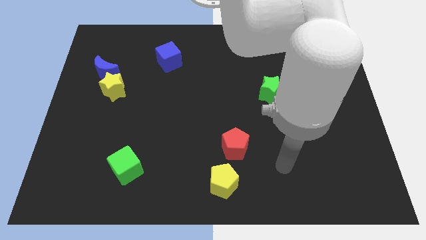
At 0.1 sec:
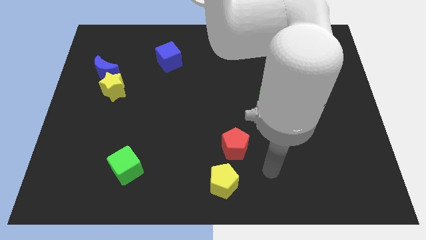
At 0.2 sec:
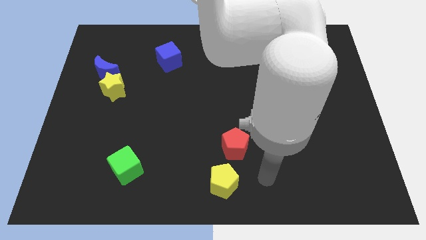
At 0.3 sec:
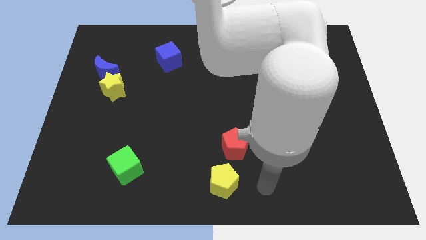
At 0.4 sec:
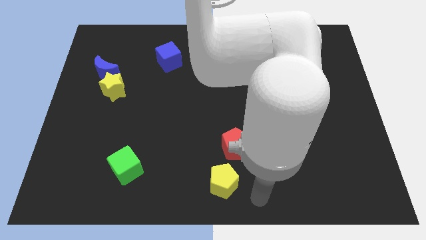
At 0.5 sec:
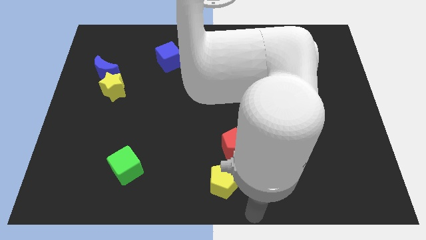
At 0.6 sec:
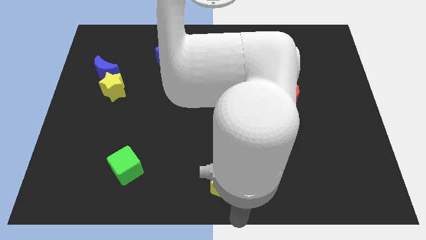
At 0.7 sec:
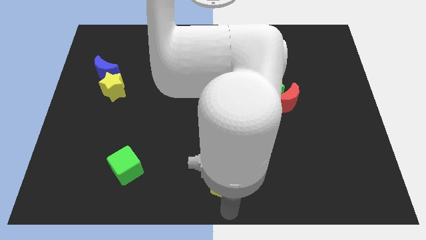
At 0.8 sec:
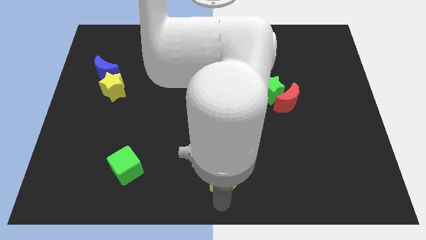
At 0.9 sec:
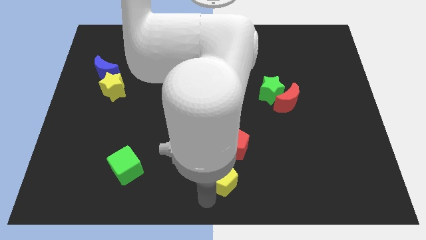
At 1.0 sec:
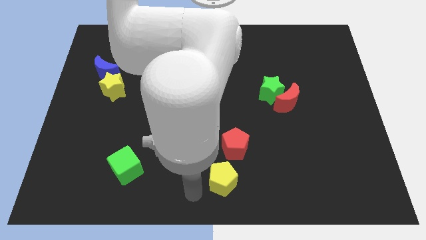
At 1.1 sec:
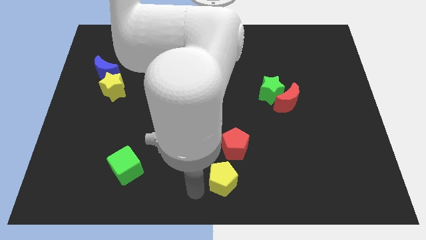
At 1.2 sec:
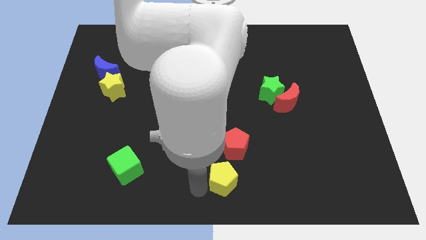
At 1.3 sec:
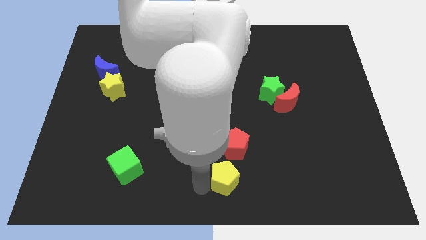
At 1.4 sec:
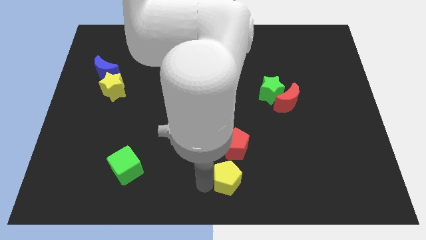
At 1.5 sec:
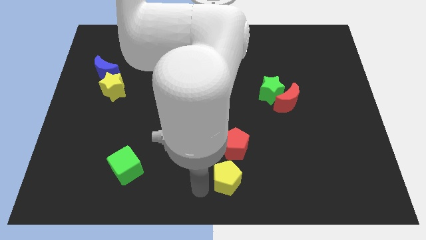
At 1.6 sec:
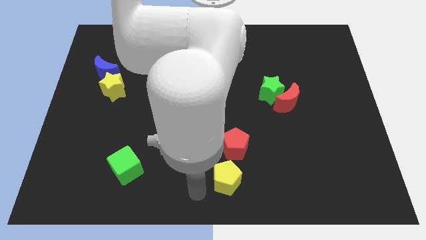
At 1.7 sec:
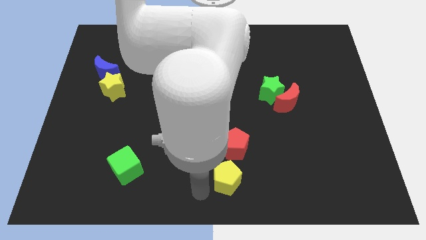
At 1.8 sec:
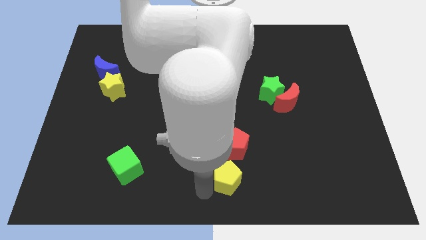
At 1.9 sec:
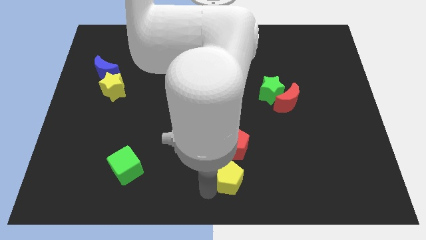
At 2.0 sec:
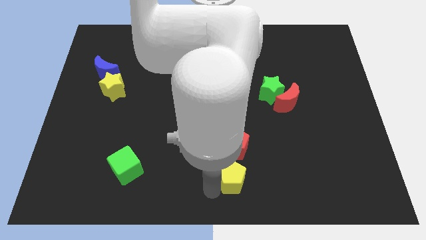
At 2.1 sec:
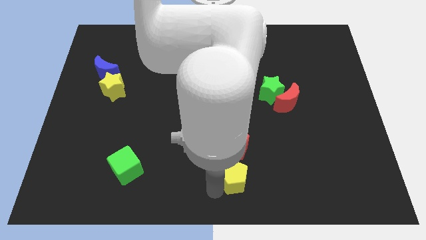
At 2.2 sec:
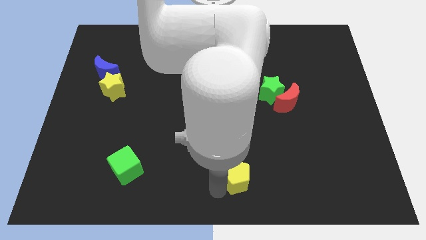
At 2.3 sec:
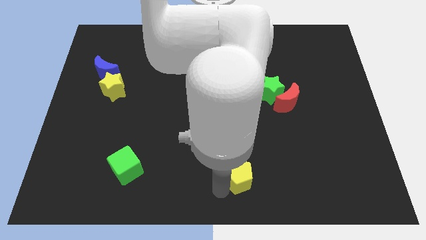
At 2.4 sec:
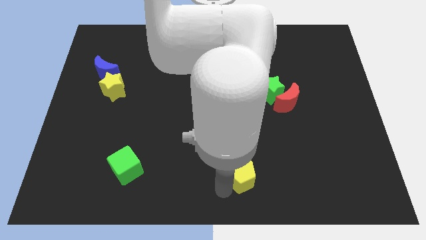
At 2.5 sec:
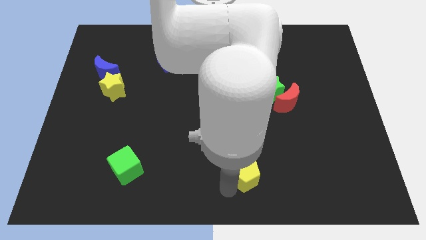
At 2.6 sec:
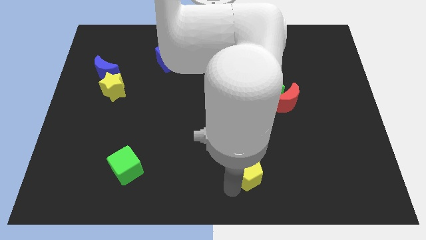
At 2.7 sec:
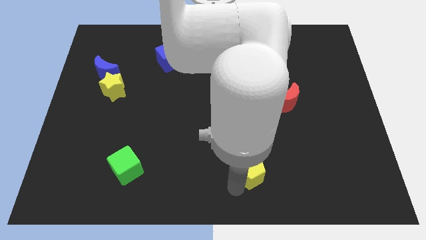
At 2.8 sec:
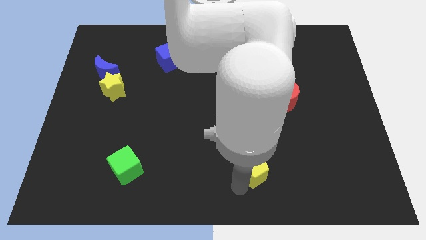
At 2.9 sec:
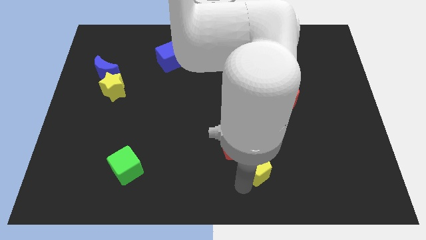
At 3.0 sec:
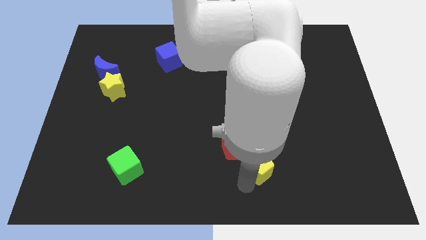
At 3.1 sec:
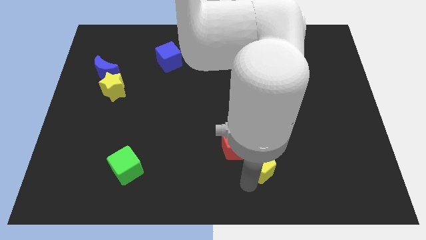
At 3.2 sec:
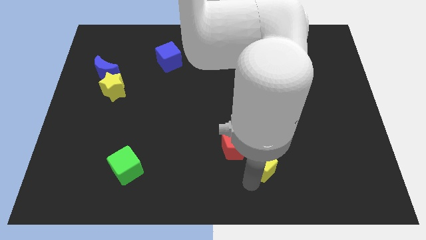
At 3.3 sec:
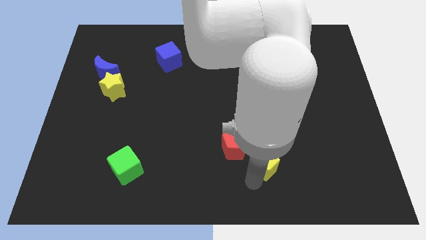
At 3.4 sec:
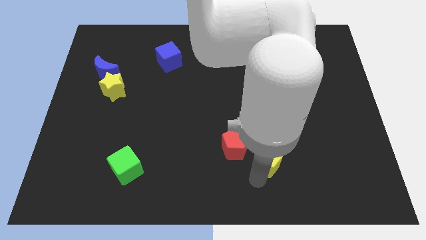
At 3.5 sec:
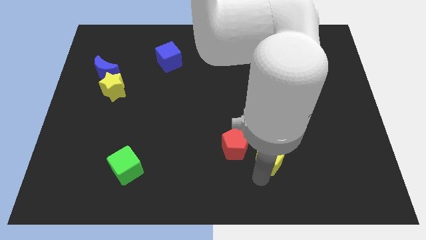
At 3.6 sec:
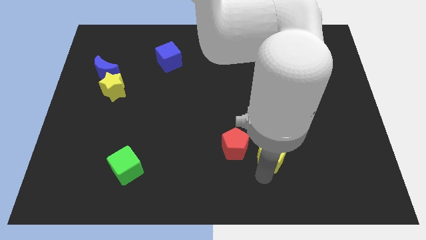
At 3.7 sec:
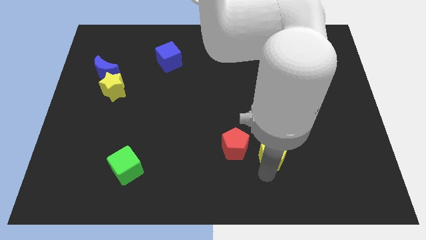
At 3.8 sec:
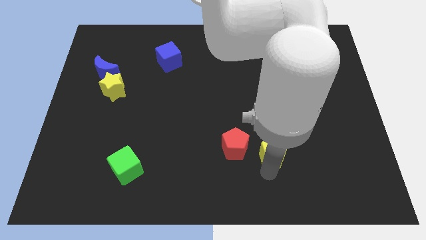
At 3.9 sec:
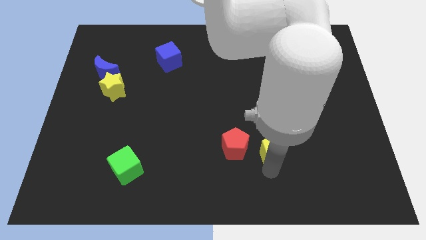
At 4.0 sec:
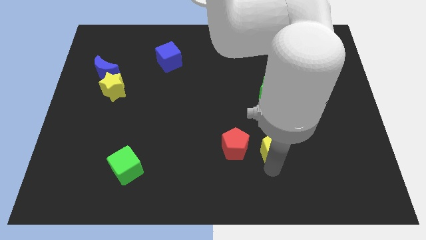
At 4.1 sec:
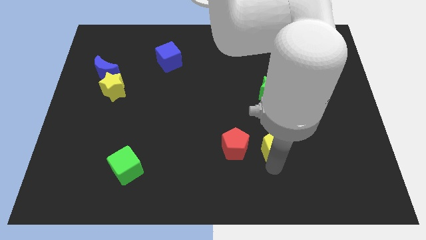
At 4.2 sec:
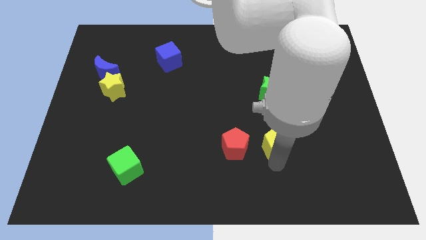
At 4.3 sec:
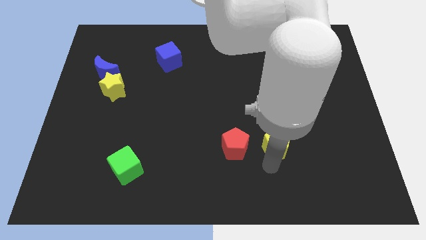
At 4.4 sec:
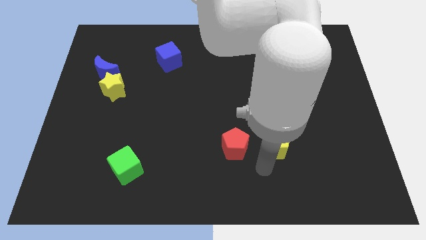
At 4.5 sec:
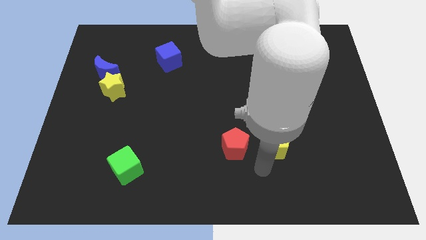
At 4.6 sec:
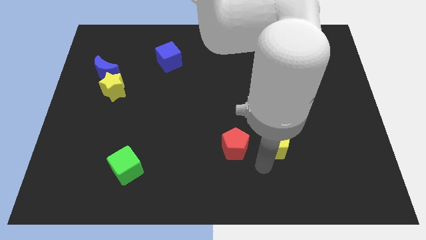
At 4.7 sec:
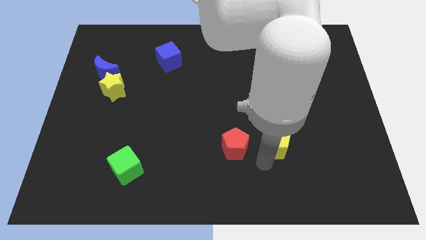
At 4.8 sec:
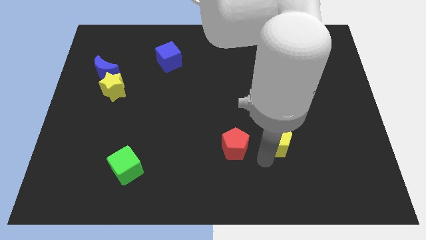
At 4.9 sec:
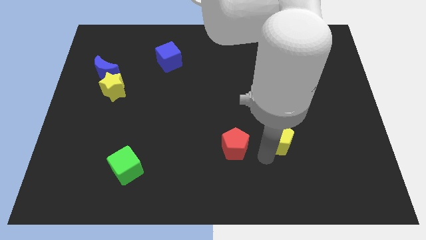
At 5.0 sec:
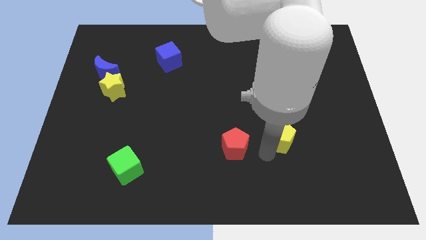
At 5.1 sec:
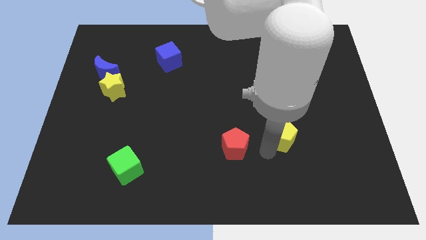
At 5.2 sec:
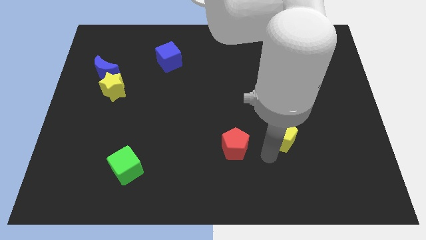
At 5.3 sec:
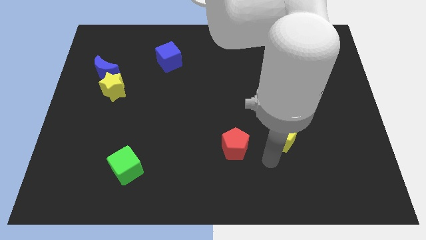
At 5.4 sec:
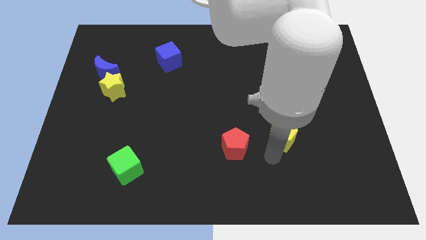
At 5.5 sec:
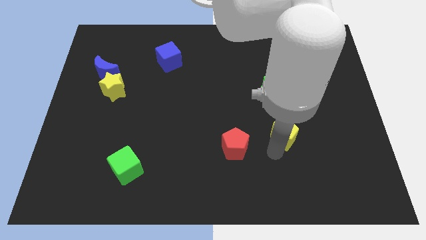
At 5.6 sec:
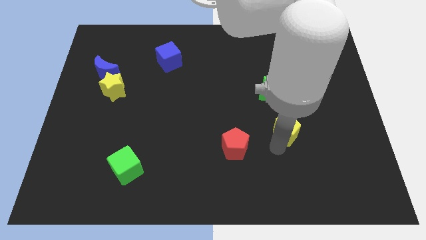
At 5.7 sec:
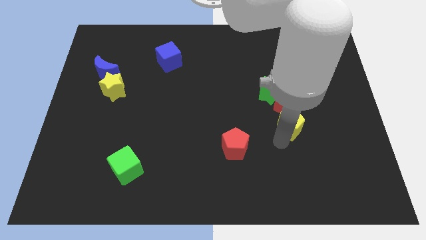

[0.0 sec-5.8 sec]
push the yellow pentagon to the bottom right side of the green star

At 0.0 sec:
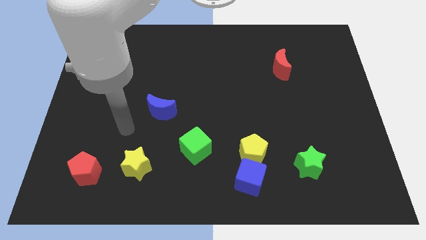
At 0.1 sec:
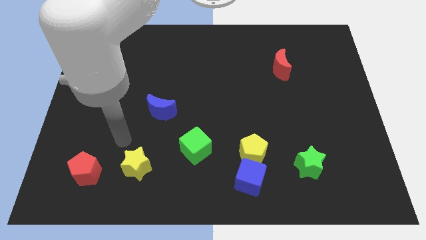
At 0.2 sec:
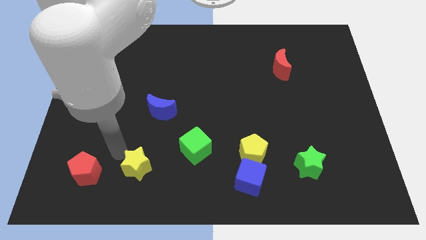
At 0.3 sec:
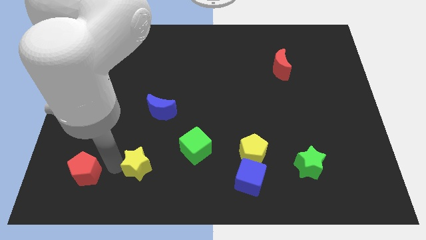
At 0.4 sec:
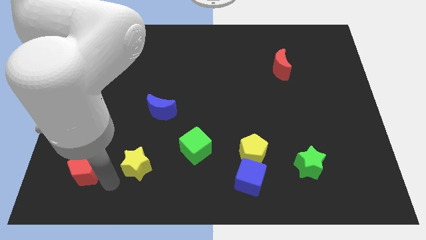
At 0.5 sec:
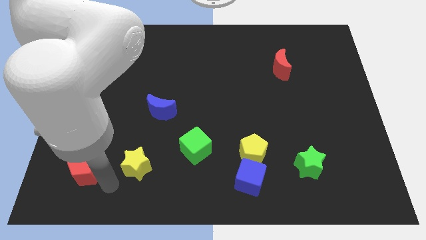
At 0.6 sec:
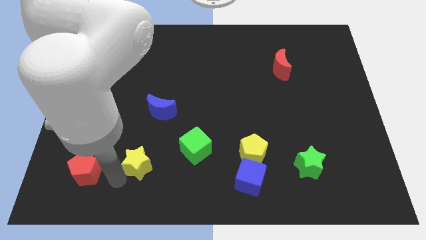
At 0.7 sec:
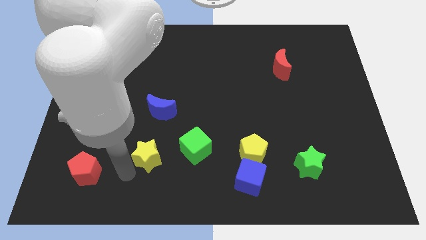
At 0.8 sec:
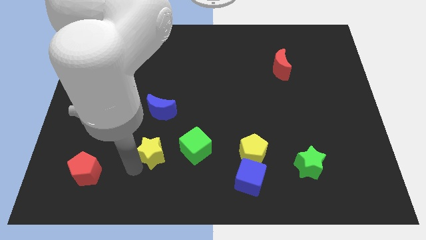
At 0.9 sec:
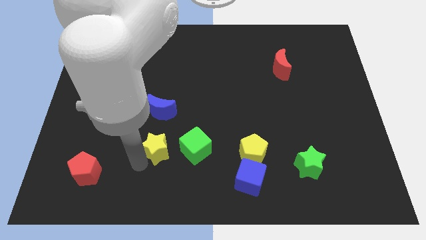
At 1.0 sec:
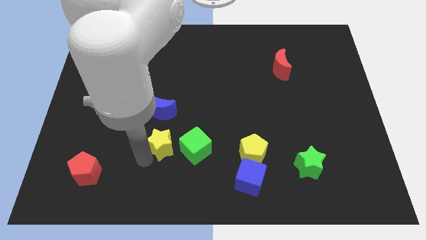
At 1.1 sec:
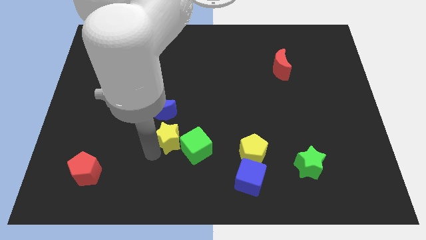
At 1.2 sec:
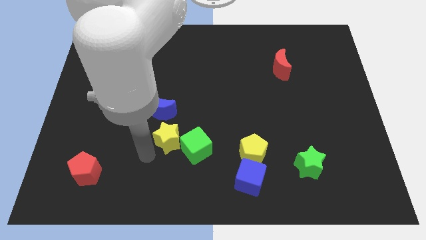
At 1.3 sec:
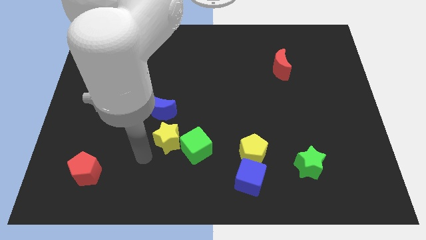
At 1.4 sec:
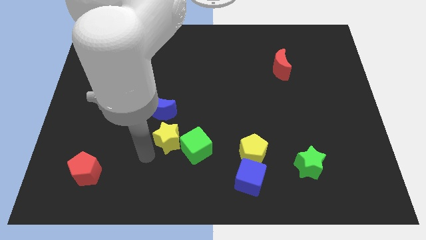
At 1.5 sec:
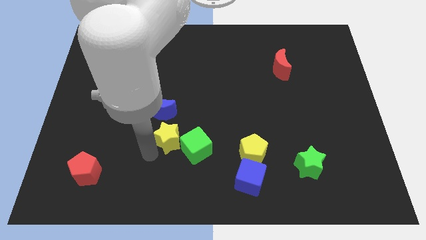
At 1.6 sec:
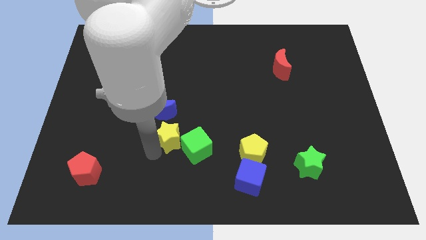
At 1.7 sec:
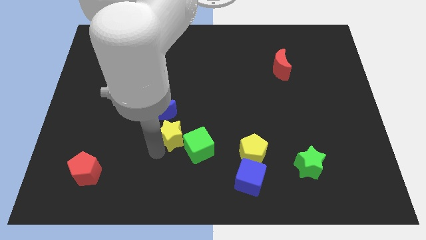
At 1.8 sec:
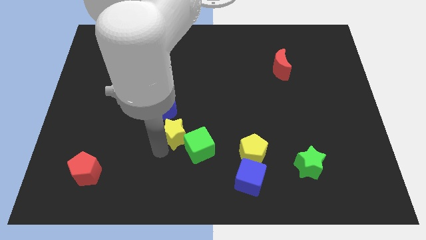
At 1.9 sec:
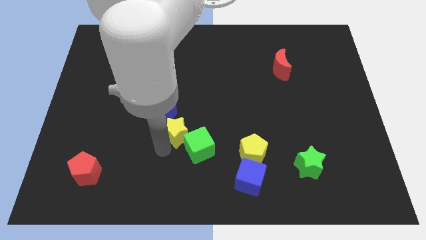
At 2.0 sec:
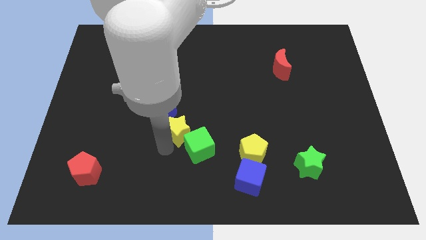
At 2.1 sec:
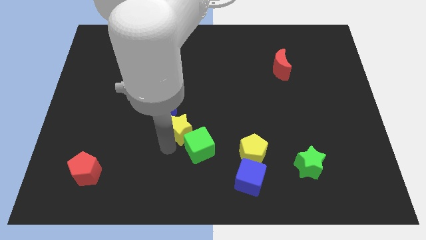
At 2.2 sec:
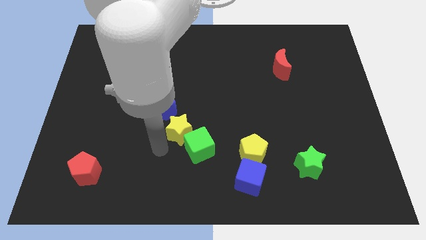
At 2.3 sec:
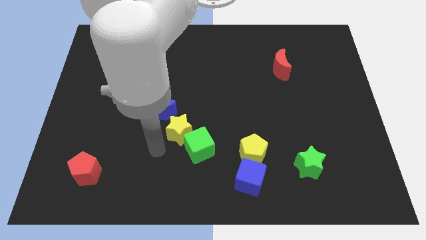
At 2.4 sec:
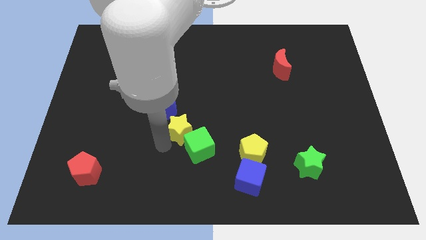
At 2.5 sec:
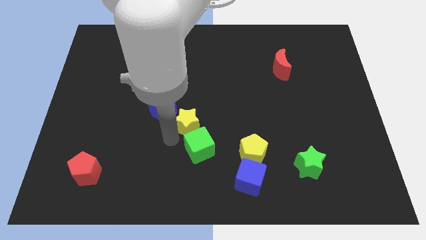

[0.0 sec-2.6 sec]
slide the yellow star just right of the blue moon
